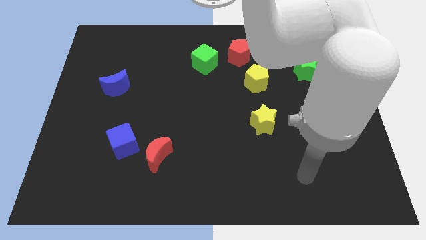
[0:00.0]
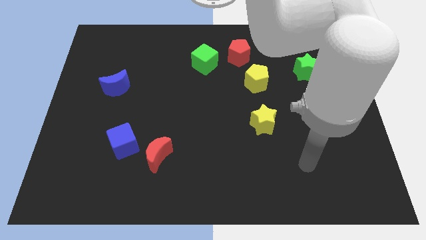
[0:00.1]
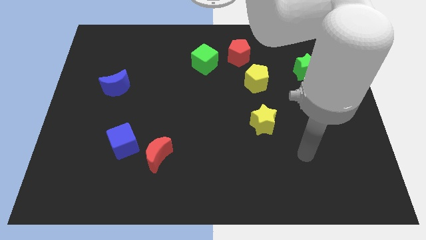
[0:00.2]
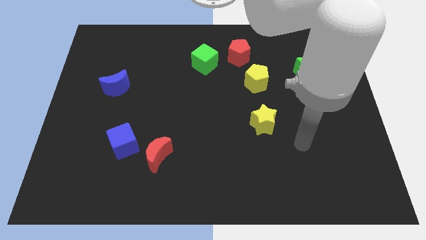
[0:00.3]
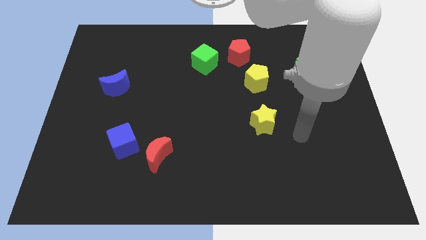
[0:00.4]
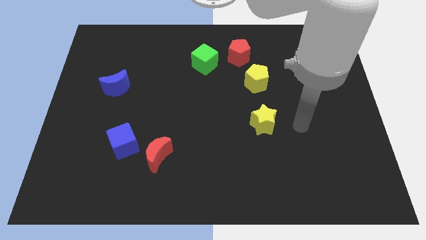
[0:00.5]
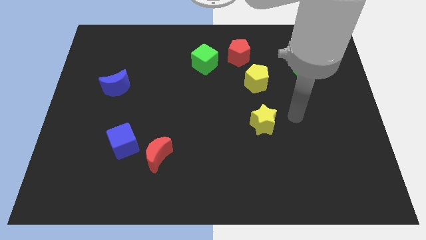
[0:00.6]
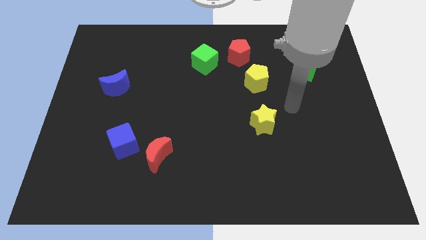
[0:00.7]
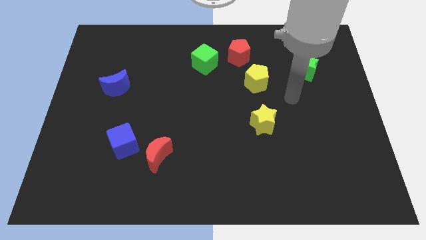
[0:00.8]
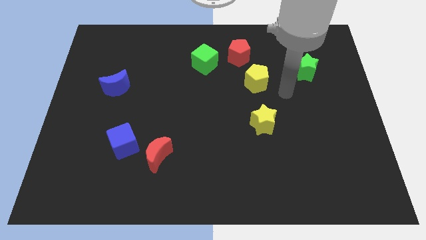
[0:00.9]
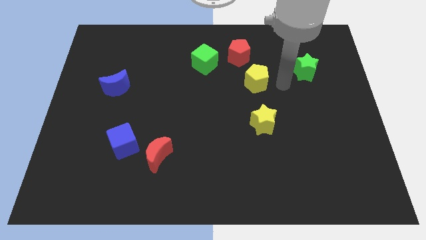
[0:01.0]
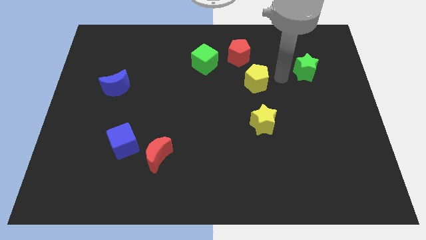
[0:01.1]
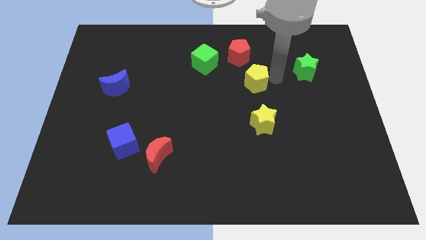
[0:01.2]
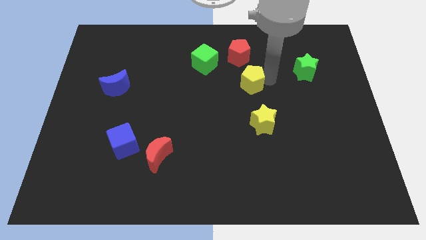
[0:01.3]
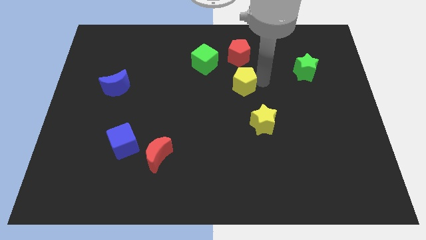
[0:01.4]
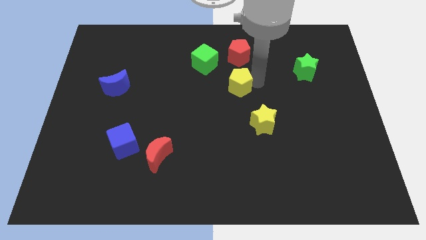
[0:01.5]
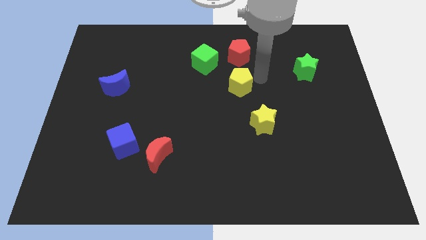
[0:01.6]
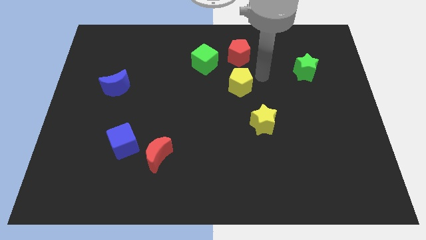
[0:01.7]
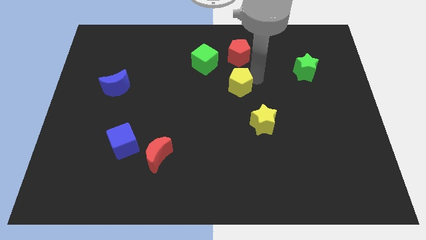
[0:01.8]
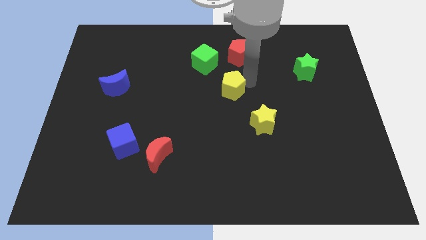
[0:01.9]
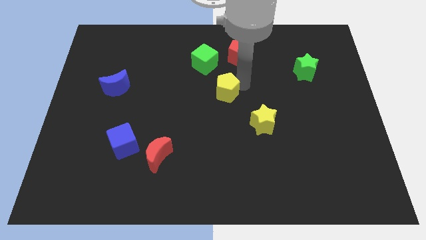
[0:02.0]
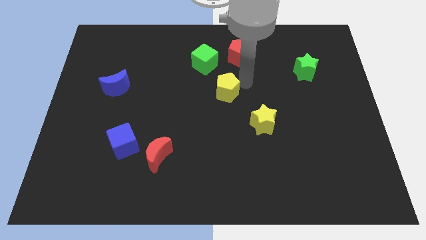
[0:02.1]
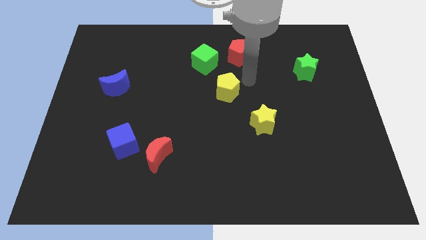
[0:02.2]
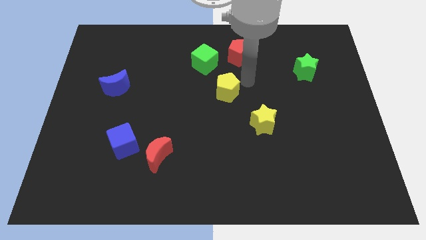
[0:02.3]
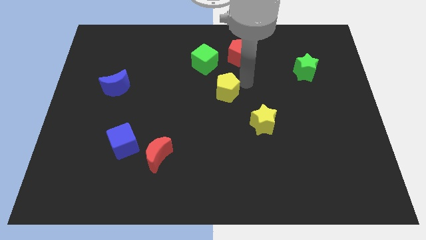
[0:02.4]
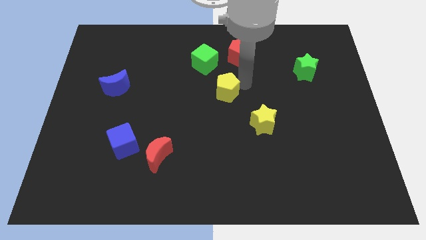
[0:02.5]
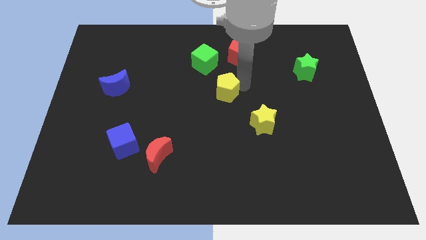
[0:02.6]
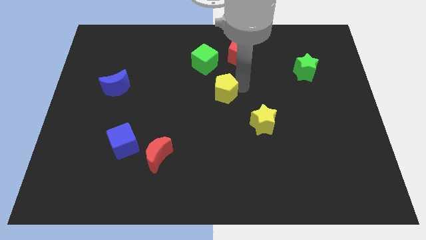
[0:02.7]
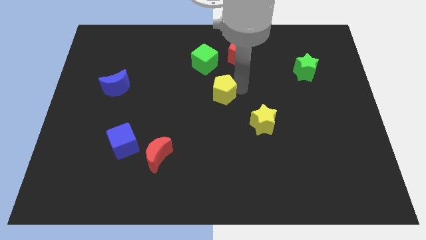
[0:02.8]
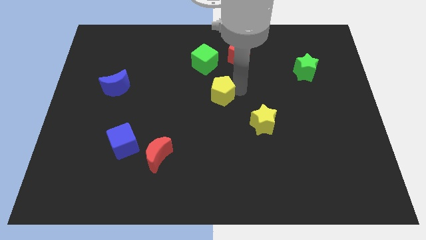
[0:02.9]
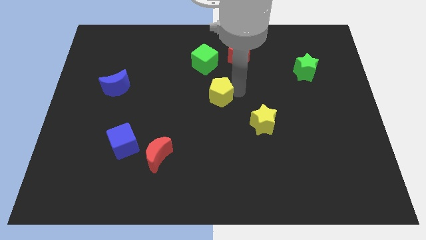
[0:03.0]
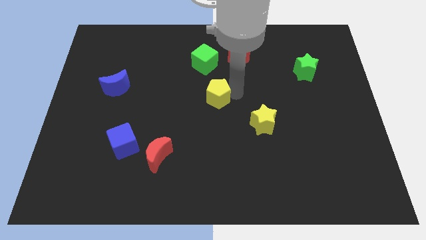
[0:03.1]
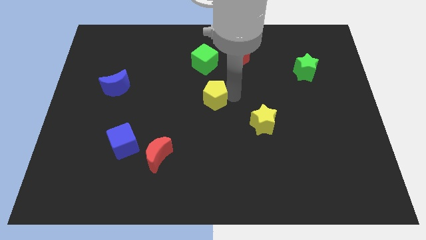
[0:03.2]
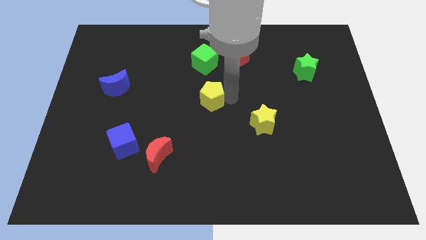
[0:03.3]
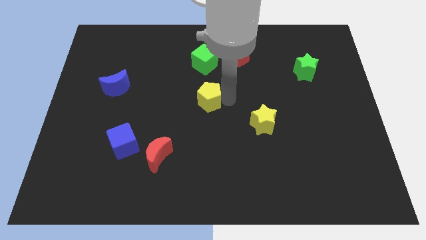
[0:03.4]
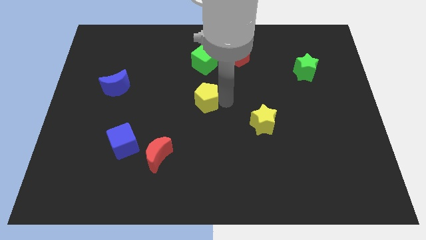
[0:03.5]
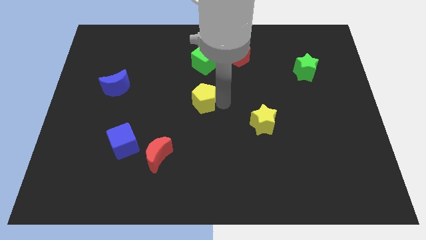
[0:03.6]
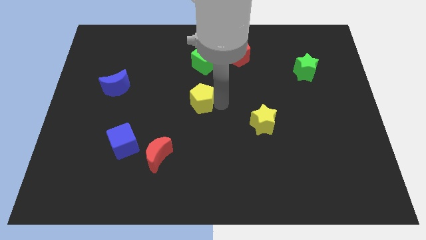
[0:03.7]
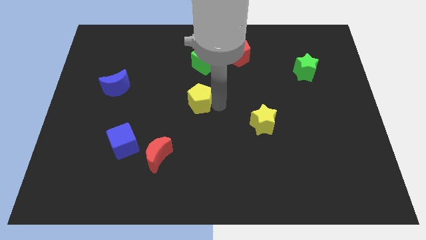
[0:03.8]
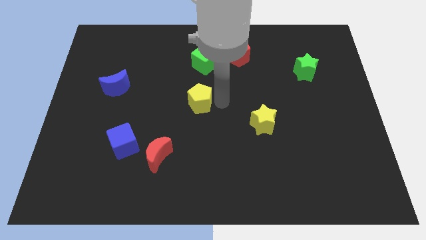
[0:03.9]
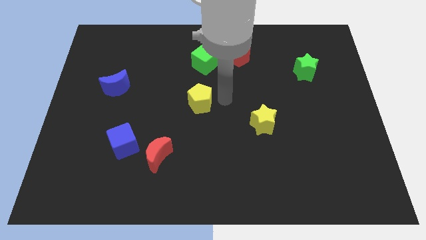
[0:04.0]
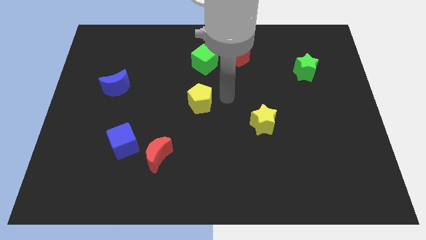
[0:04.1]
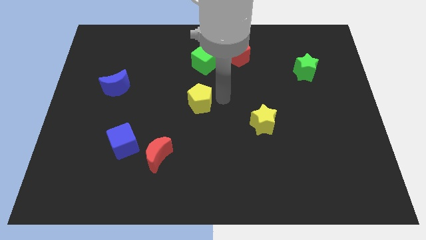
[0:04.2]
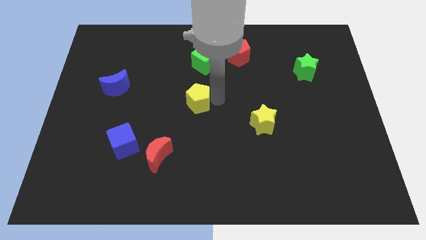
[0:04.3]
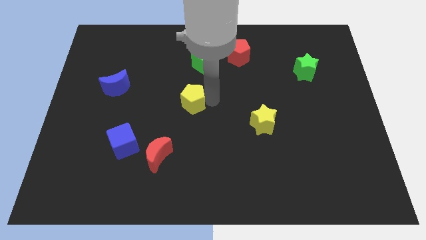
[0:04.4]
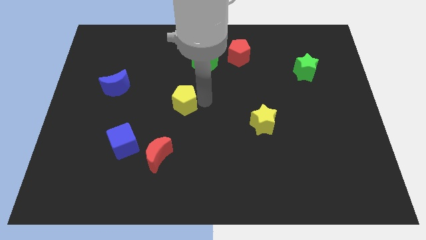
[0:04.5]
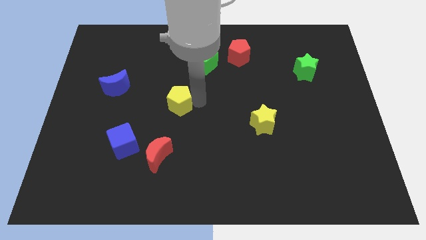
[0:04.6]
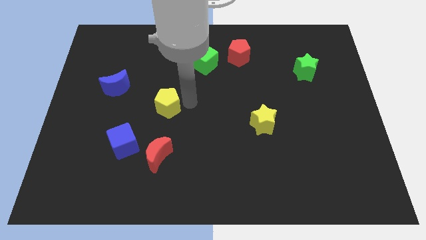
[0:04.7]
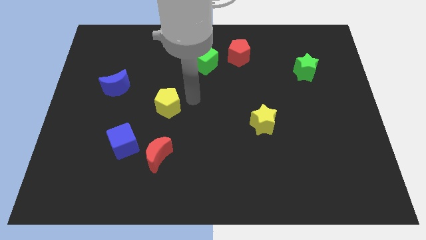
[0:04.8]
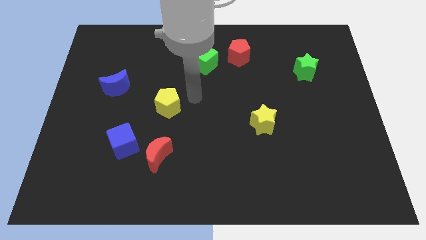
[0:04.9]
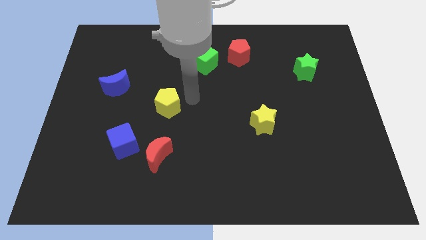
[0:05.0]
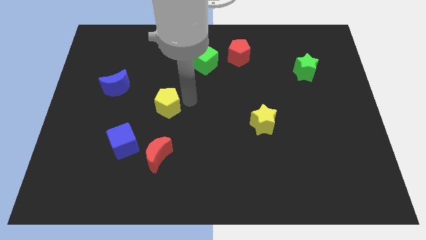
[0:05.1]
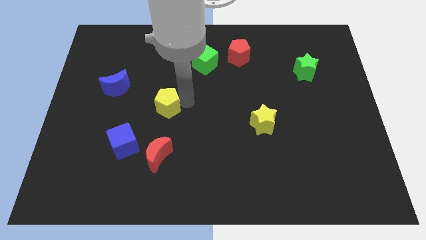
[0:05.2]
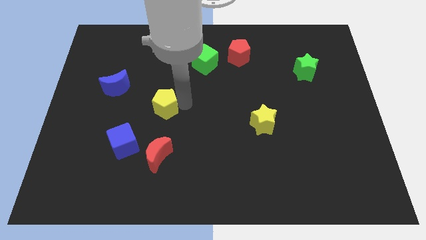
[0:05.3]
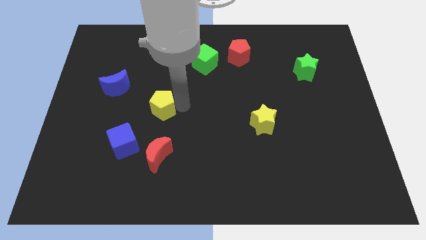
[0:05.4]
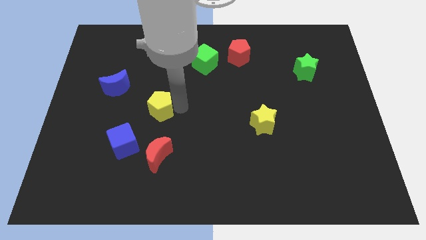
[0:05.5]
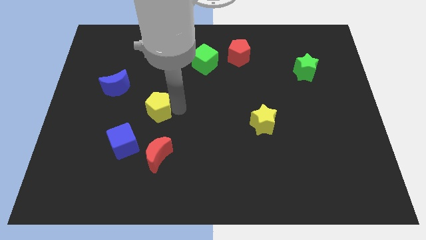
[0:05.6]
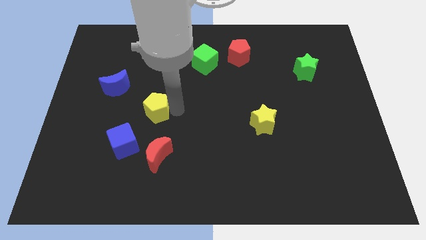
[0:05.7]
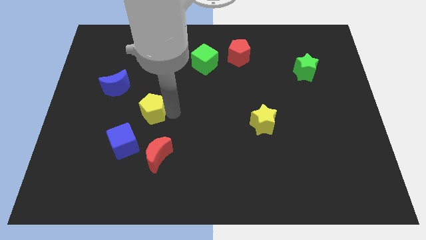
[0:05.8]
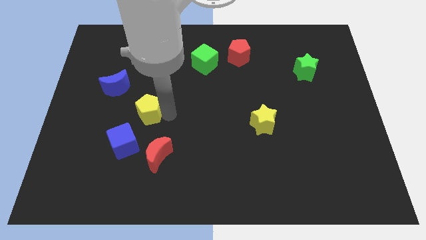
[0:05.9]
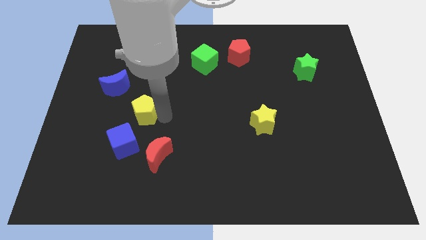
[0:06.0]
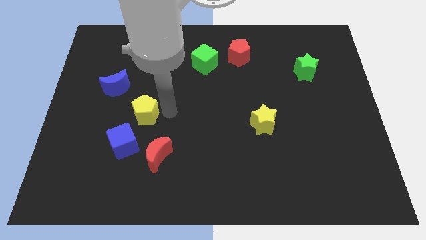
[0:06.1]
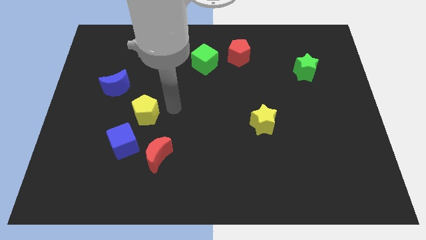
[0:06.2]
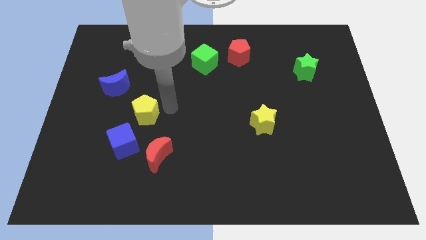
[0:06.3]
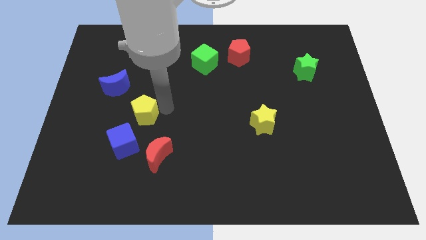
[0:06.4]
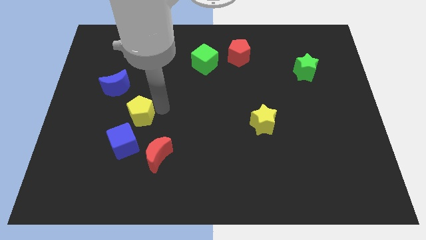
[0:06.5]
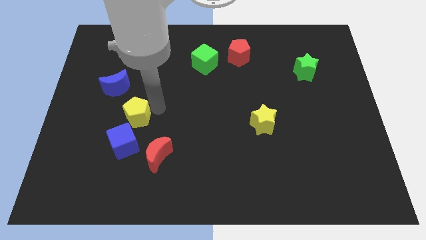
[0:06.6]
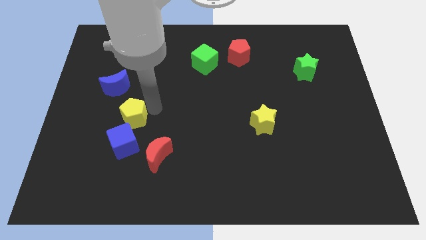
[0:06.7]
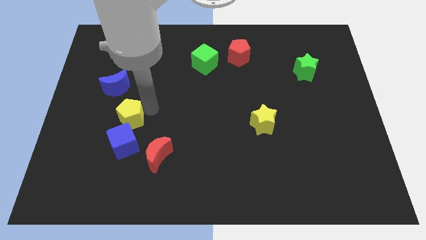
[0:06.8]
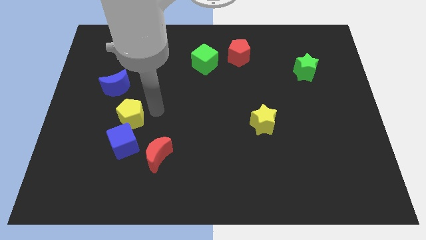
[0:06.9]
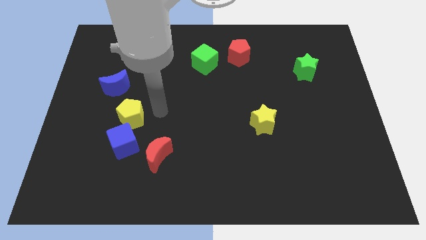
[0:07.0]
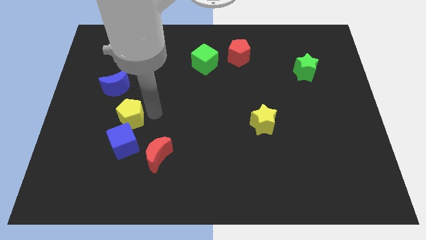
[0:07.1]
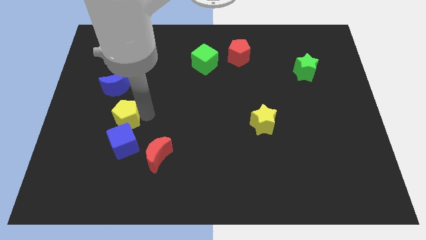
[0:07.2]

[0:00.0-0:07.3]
slide the yellow pentagon diagonally up and to the left of the blue cube

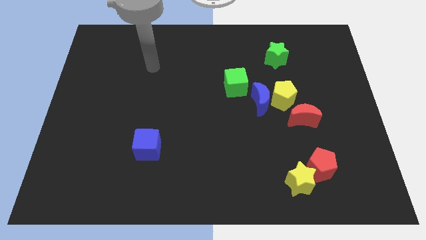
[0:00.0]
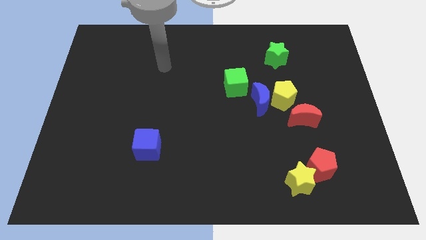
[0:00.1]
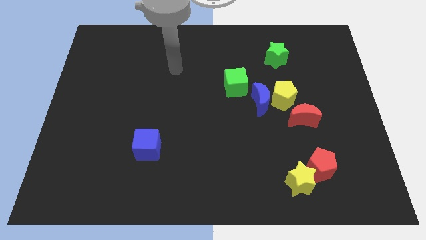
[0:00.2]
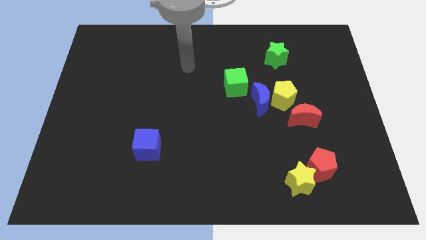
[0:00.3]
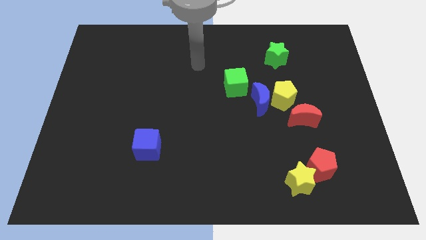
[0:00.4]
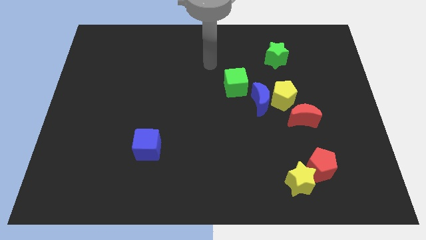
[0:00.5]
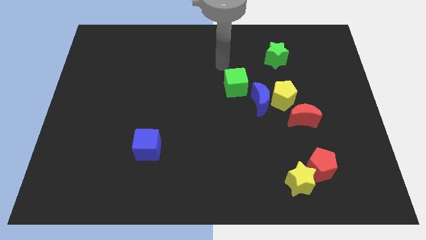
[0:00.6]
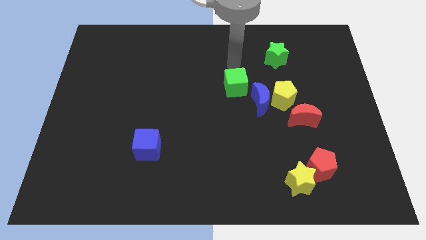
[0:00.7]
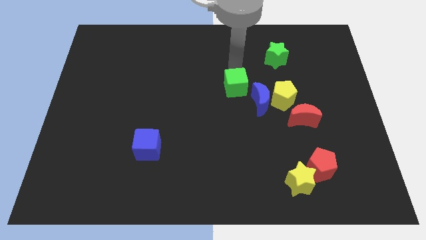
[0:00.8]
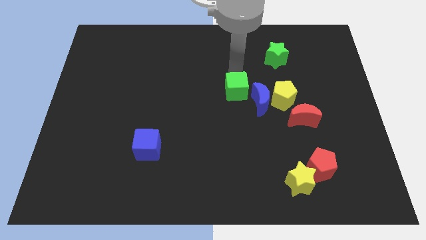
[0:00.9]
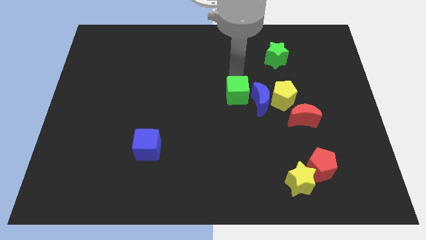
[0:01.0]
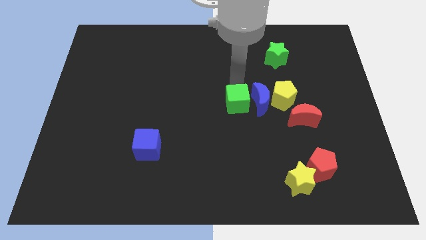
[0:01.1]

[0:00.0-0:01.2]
push the green cube to the bottom left of the blue moon
